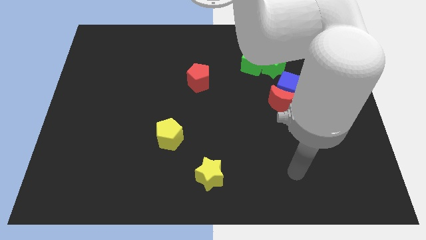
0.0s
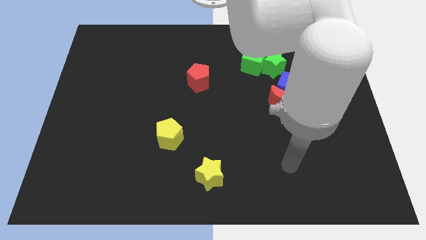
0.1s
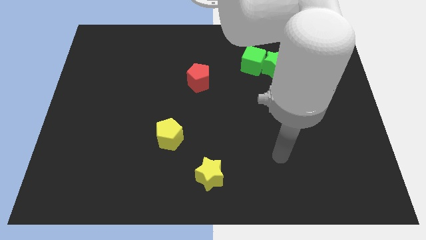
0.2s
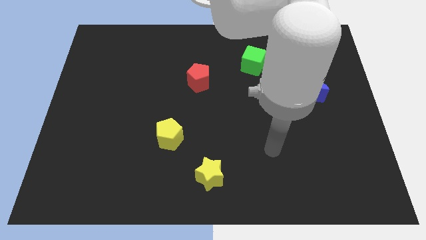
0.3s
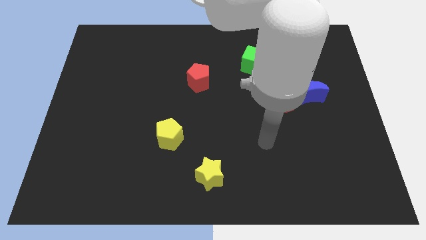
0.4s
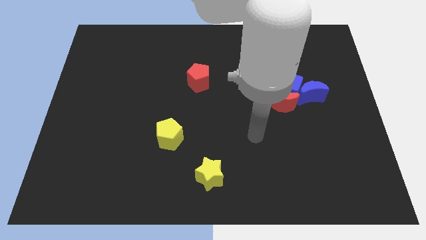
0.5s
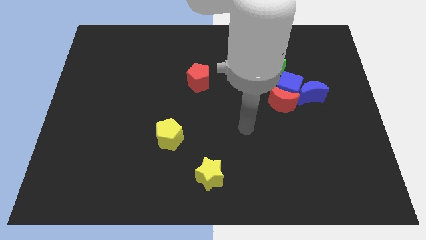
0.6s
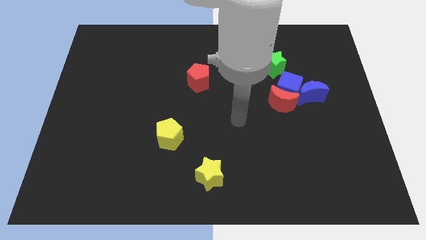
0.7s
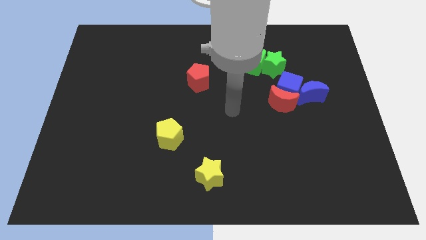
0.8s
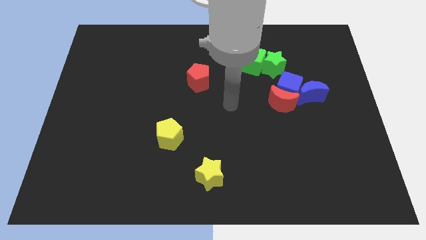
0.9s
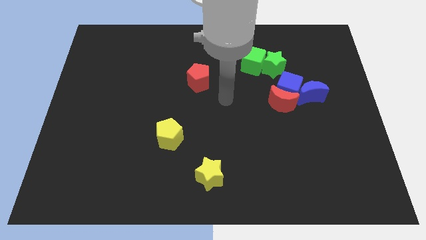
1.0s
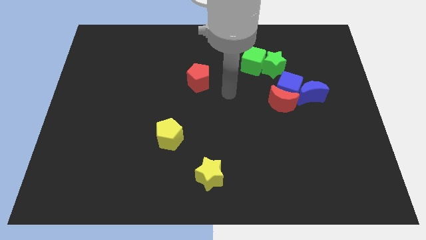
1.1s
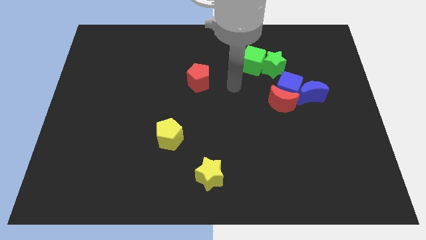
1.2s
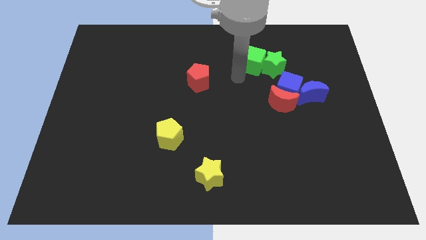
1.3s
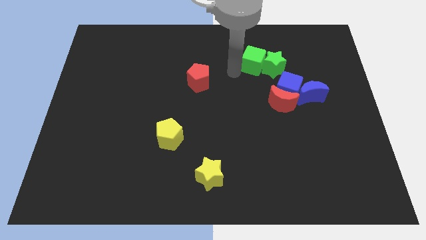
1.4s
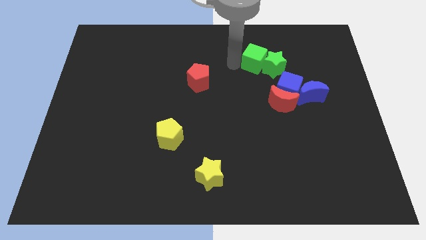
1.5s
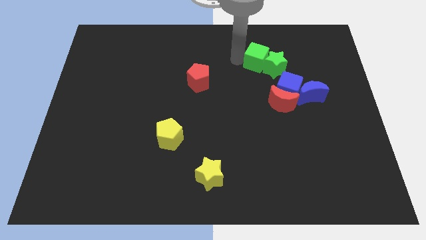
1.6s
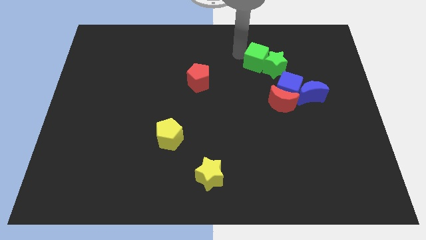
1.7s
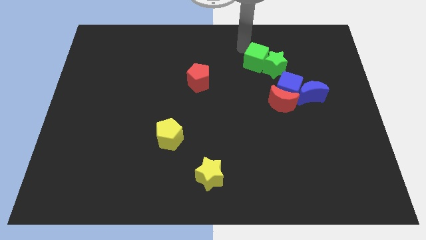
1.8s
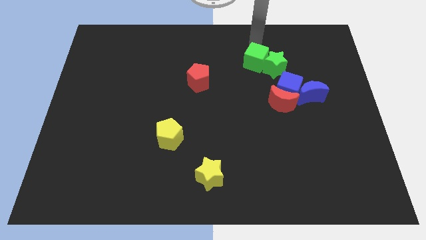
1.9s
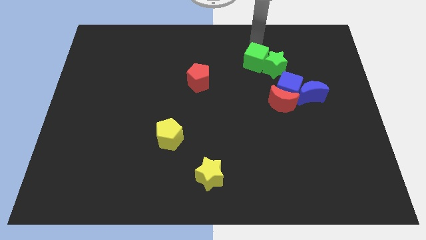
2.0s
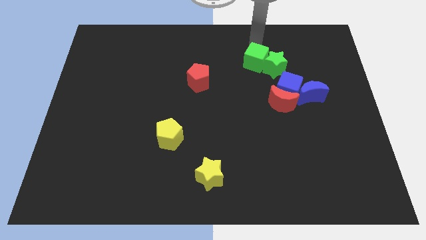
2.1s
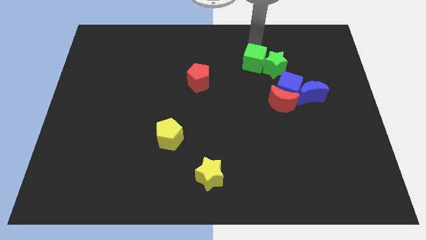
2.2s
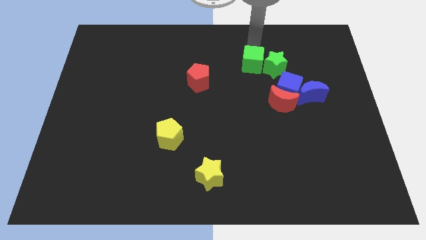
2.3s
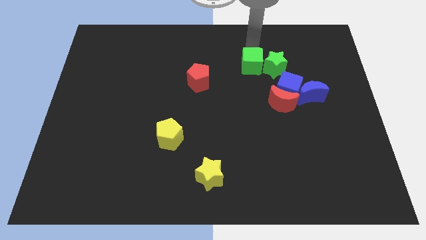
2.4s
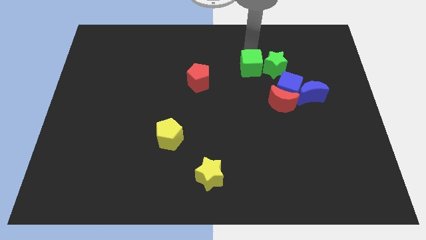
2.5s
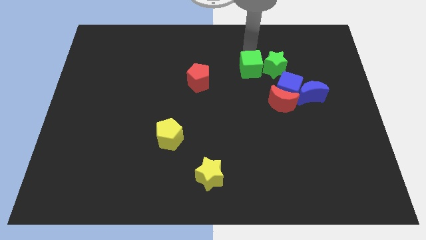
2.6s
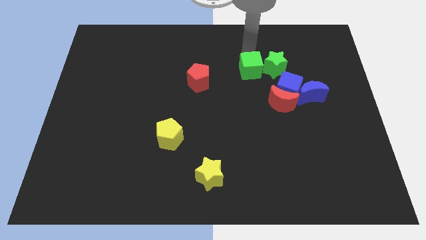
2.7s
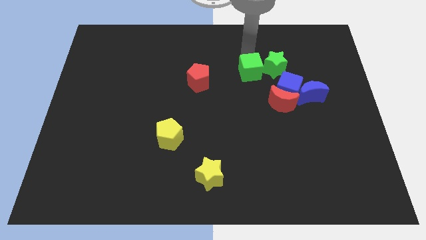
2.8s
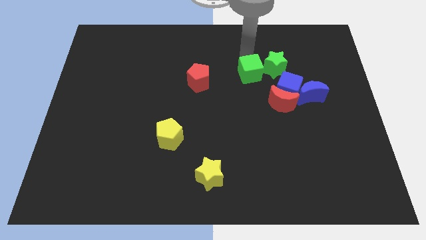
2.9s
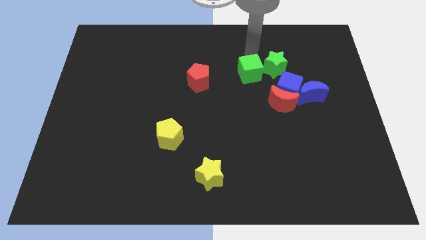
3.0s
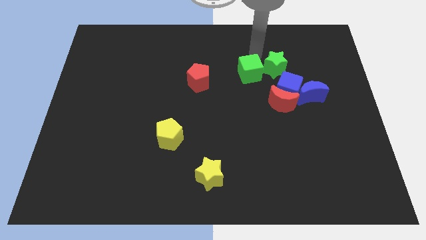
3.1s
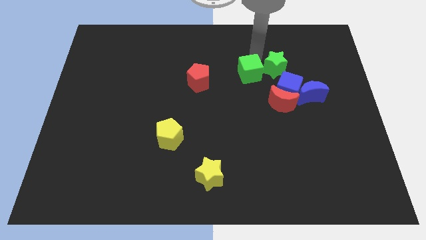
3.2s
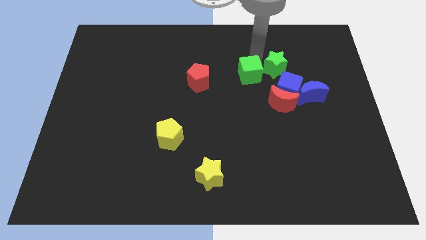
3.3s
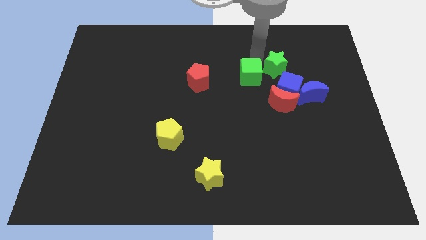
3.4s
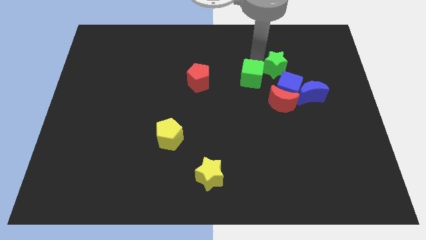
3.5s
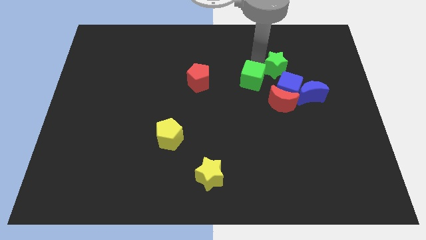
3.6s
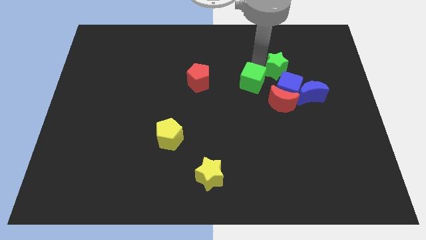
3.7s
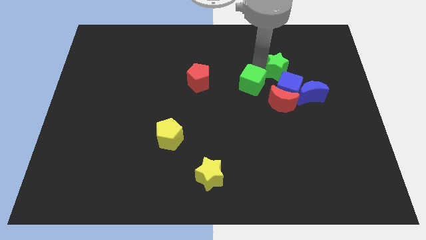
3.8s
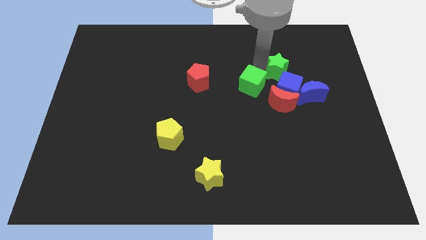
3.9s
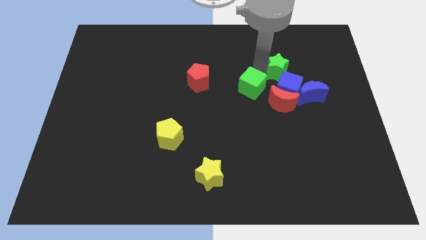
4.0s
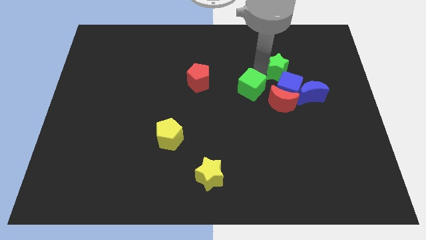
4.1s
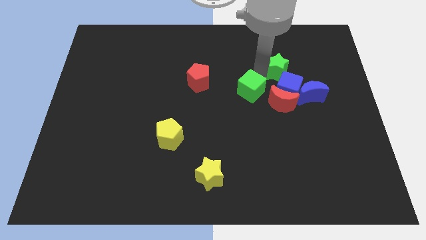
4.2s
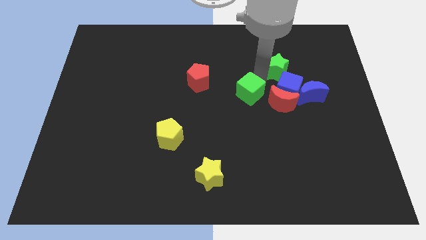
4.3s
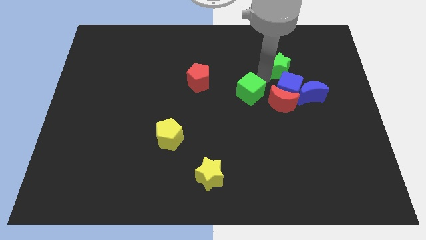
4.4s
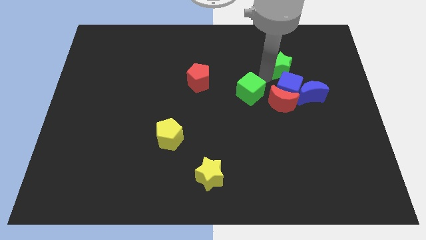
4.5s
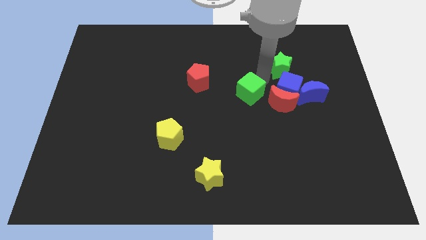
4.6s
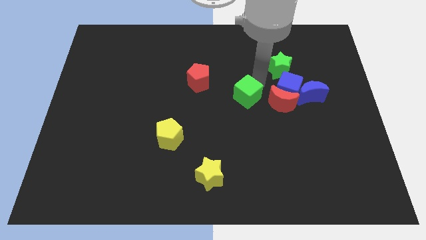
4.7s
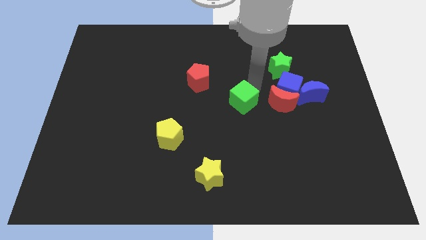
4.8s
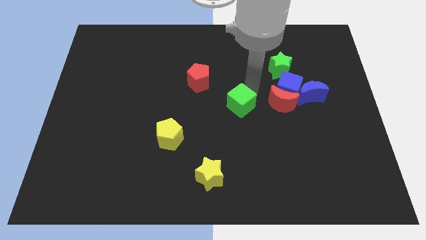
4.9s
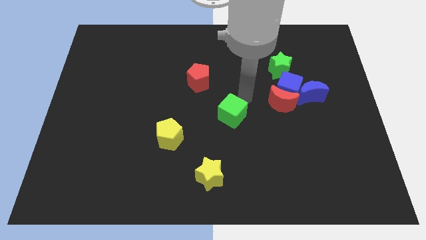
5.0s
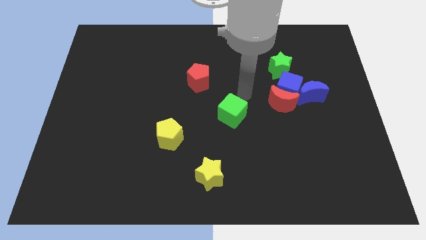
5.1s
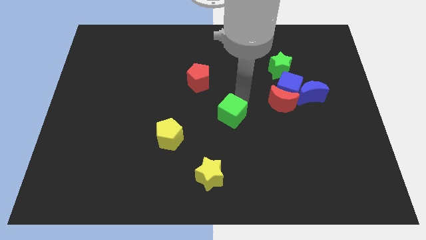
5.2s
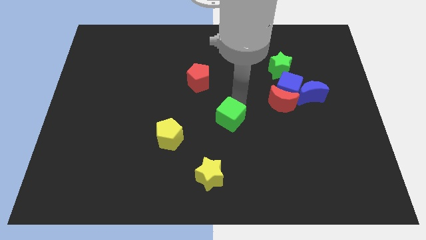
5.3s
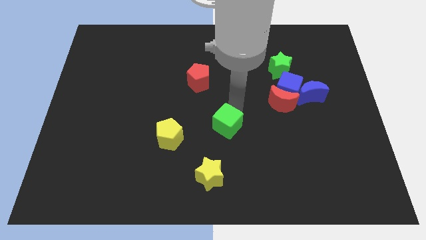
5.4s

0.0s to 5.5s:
push the green cube right of the yellow pentagon

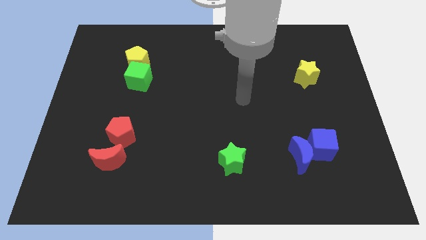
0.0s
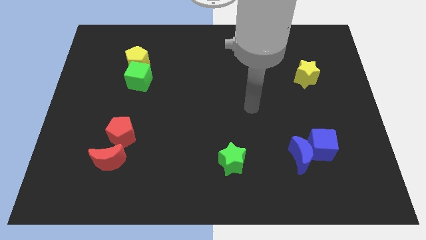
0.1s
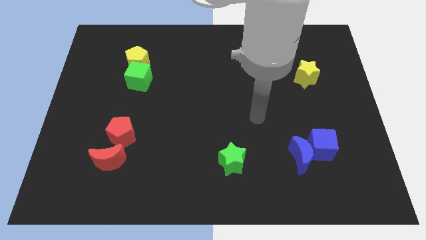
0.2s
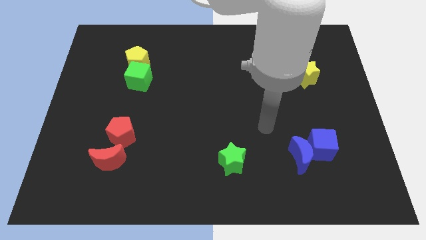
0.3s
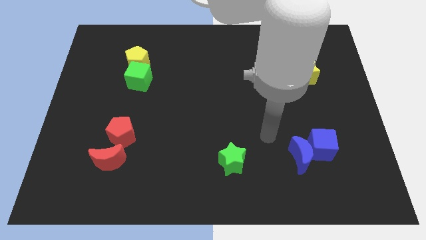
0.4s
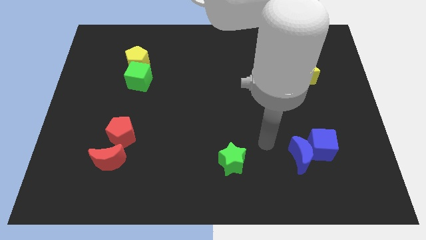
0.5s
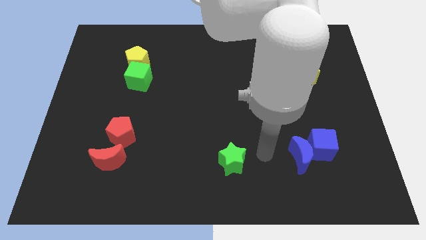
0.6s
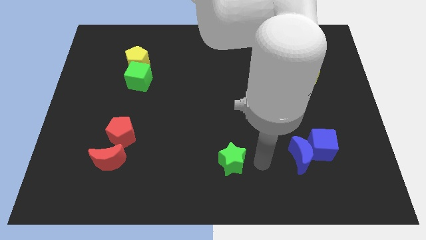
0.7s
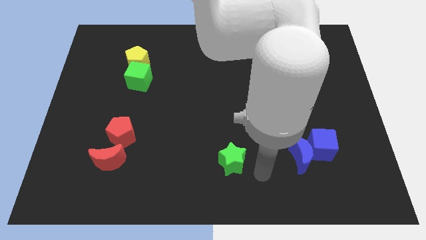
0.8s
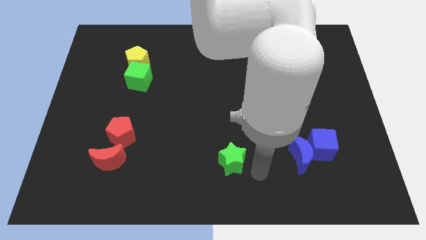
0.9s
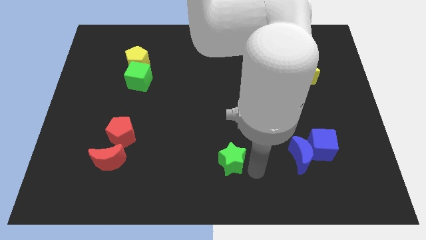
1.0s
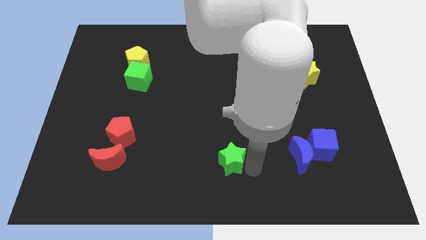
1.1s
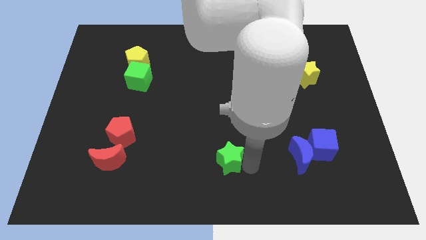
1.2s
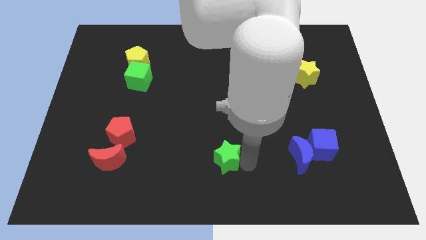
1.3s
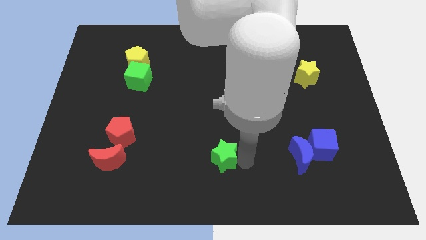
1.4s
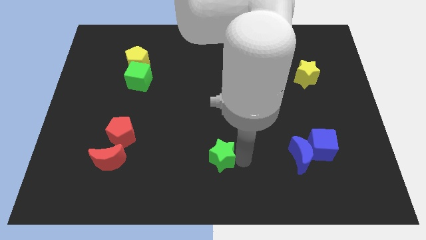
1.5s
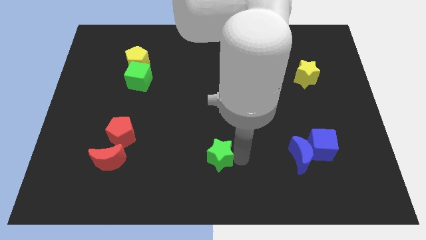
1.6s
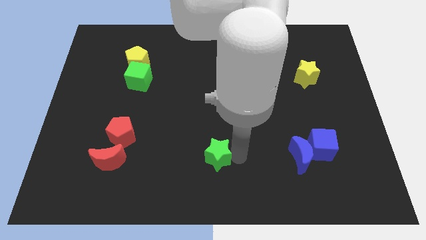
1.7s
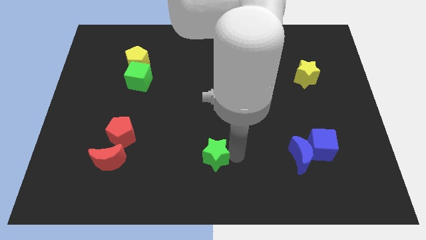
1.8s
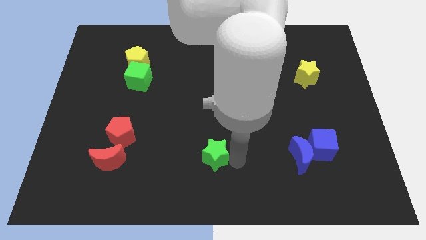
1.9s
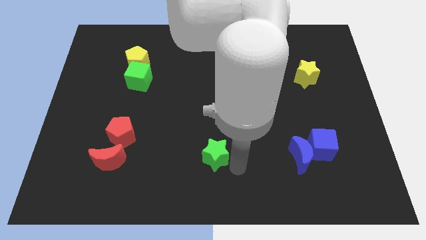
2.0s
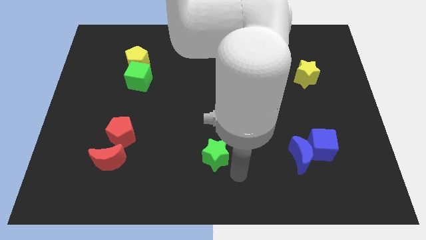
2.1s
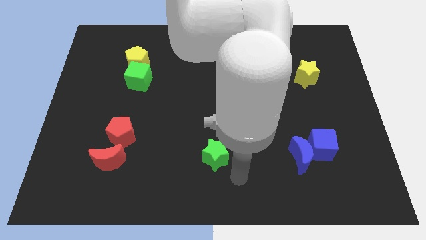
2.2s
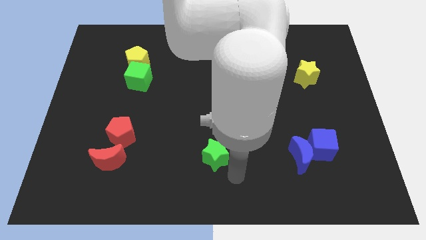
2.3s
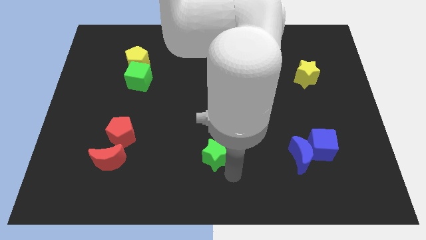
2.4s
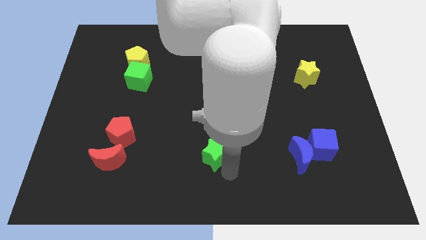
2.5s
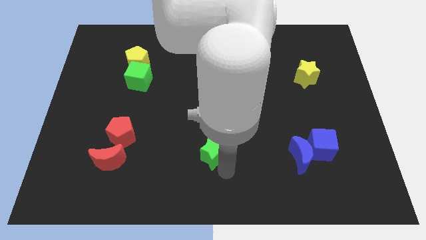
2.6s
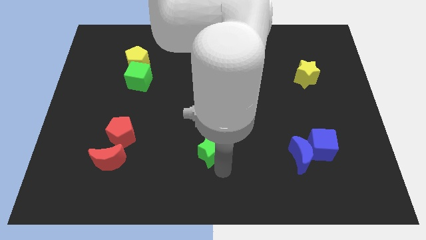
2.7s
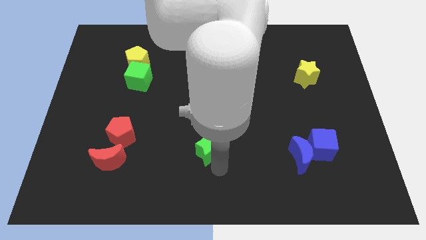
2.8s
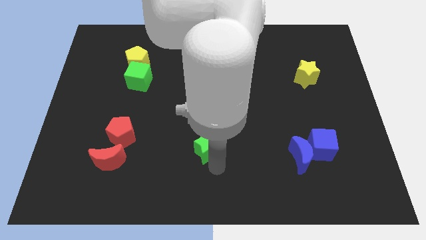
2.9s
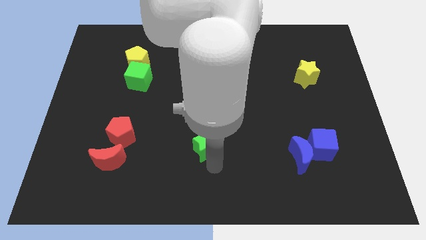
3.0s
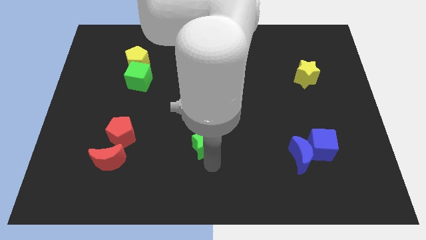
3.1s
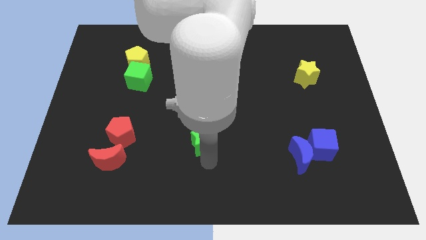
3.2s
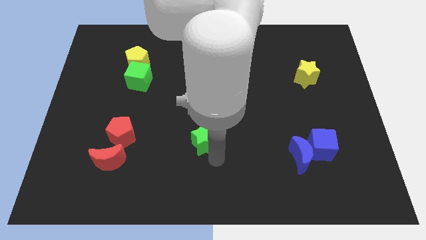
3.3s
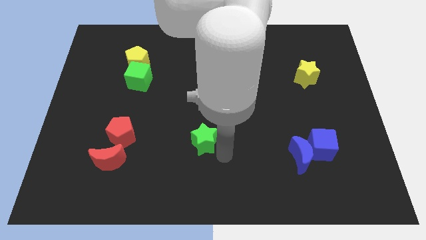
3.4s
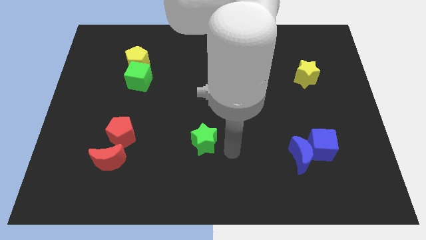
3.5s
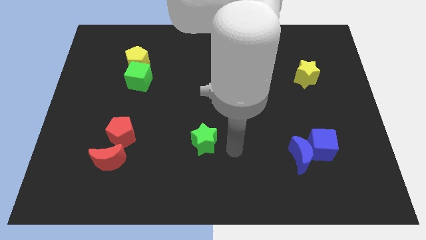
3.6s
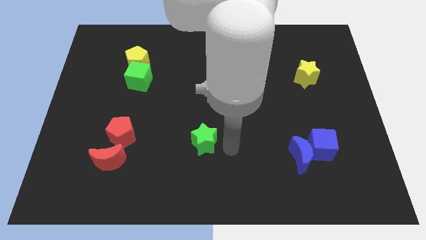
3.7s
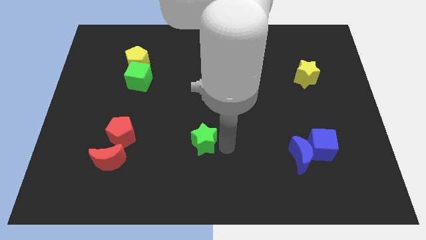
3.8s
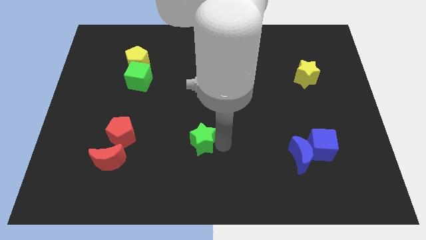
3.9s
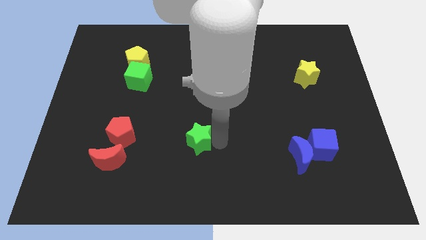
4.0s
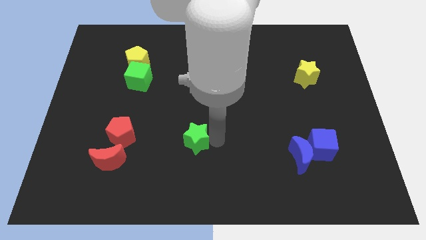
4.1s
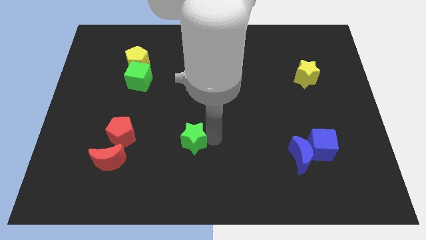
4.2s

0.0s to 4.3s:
slide the green star right of the red pentagon
